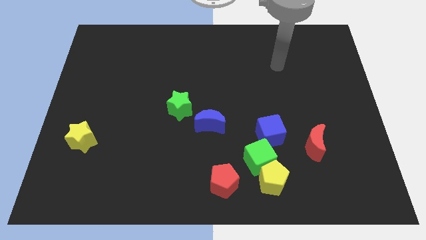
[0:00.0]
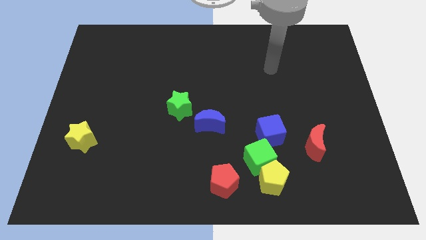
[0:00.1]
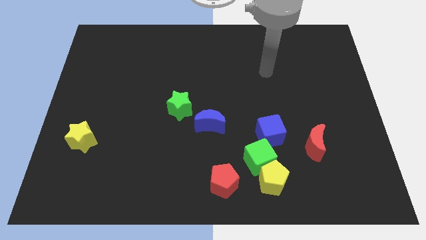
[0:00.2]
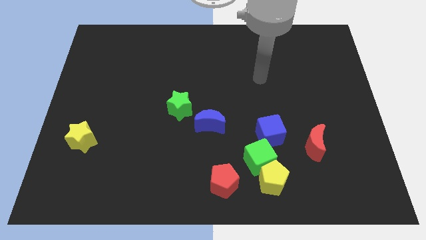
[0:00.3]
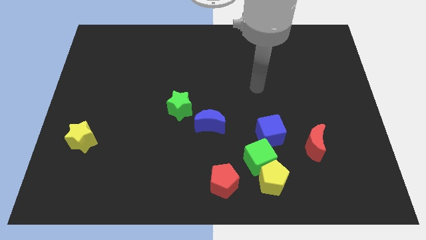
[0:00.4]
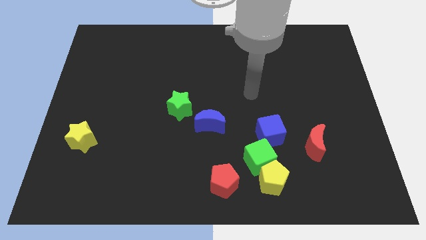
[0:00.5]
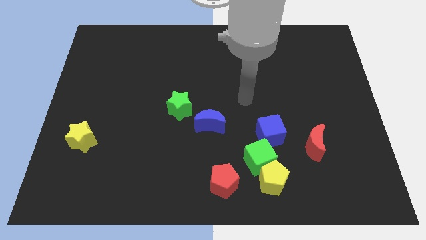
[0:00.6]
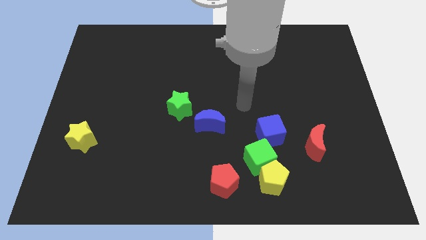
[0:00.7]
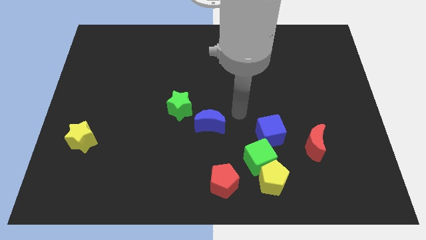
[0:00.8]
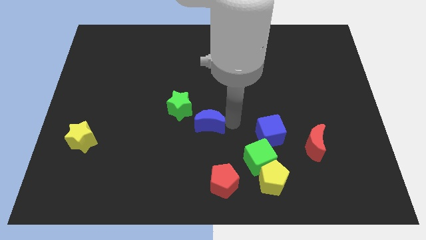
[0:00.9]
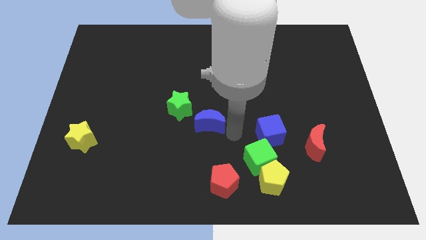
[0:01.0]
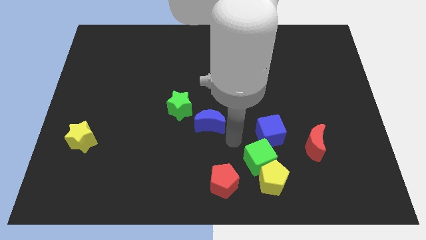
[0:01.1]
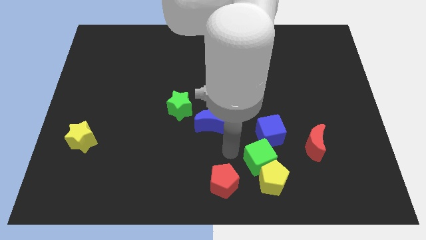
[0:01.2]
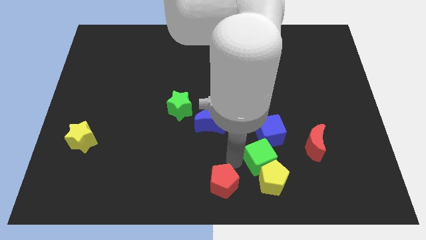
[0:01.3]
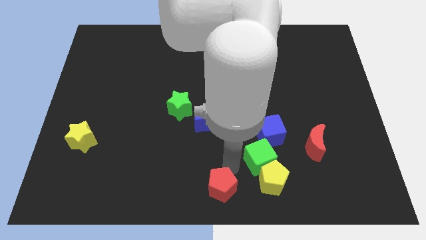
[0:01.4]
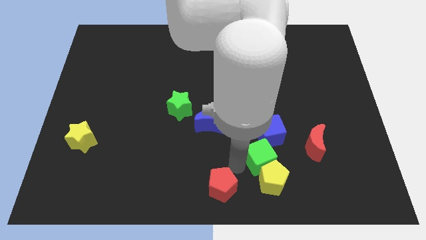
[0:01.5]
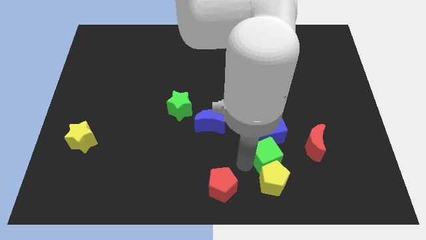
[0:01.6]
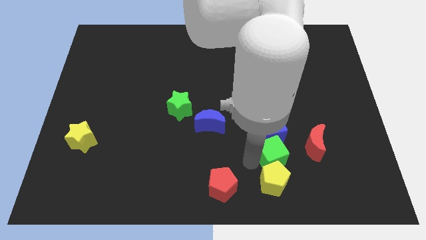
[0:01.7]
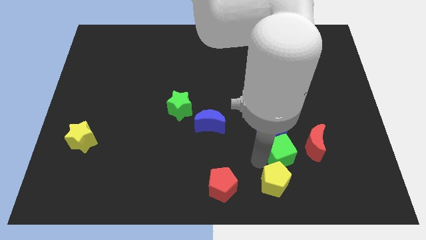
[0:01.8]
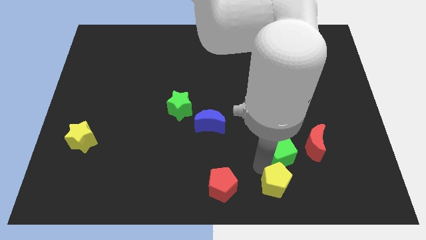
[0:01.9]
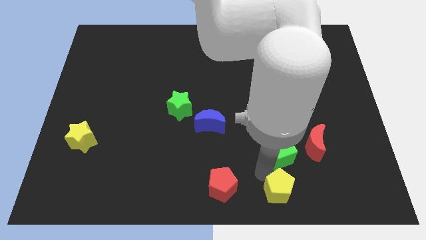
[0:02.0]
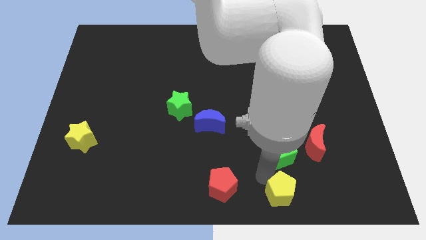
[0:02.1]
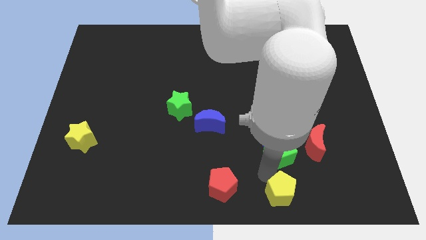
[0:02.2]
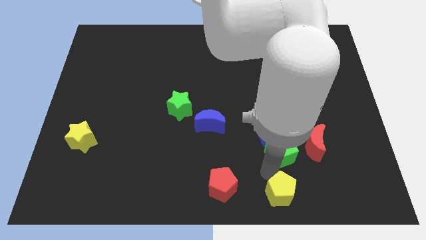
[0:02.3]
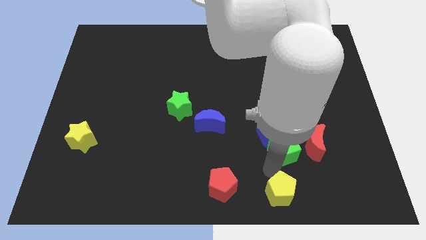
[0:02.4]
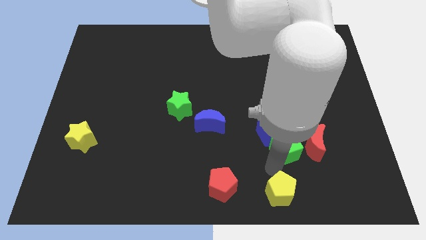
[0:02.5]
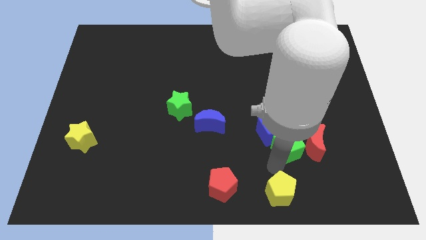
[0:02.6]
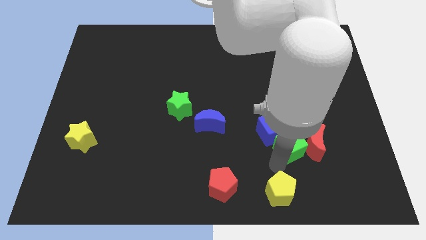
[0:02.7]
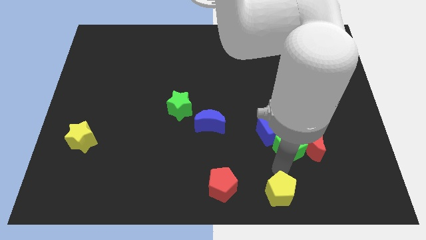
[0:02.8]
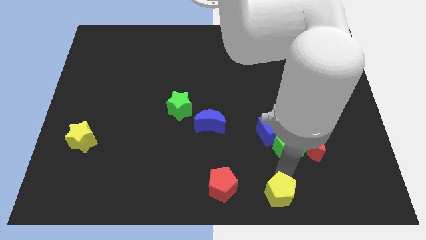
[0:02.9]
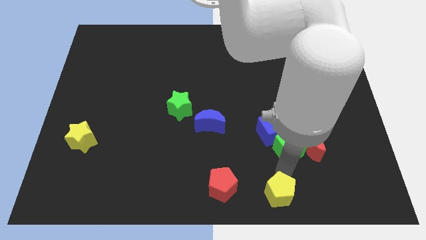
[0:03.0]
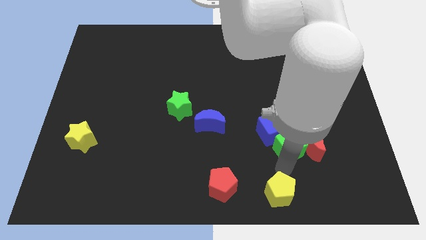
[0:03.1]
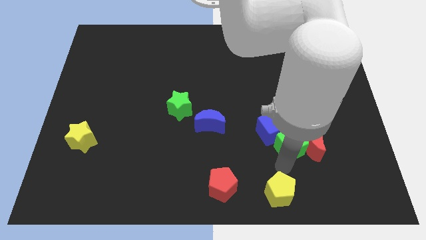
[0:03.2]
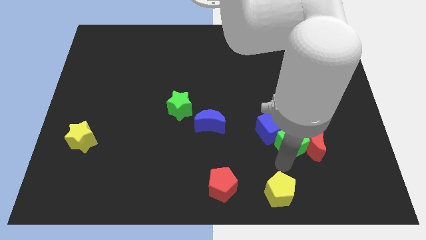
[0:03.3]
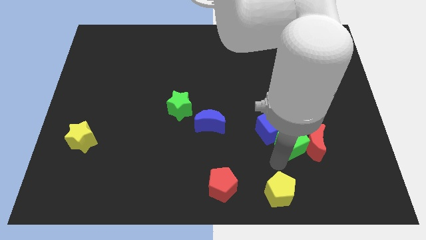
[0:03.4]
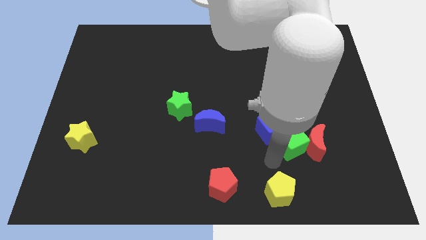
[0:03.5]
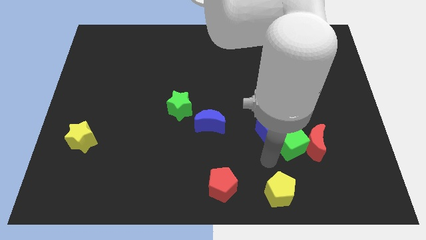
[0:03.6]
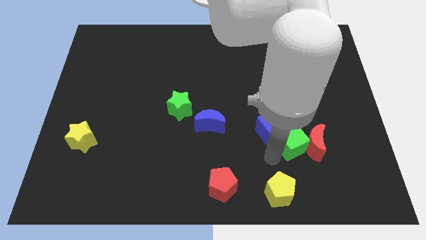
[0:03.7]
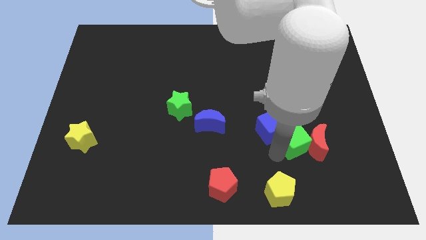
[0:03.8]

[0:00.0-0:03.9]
move the green cube away from the yellow pentagon, blue cube, and red pentagon

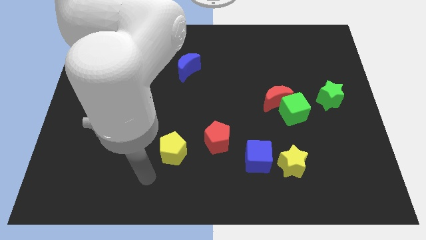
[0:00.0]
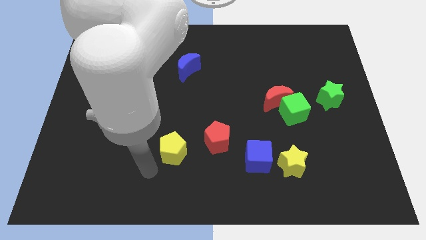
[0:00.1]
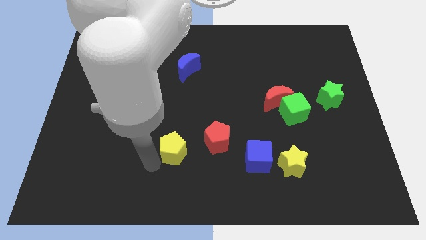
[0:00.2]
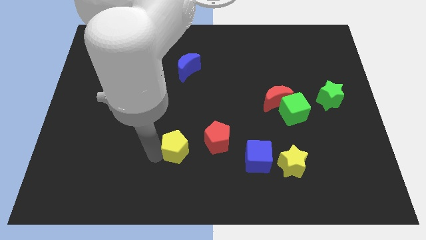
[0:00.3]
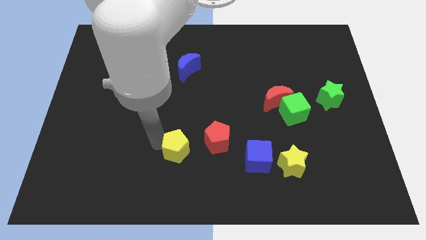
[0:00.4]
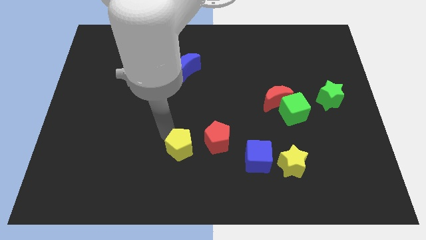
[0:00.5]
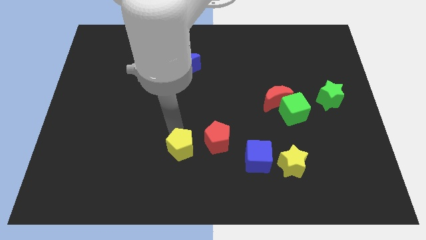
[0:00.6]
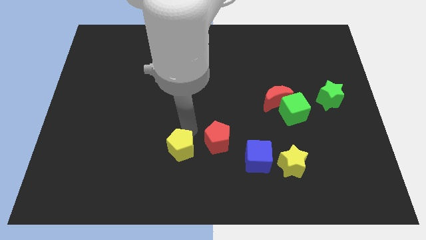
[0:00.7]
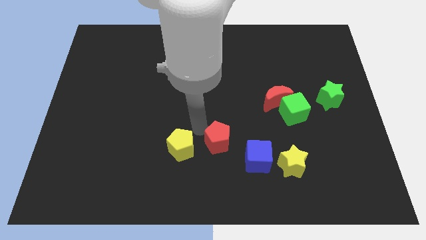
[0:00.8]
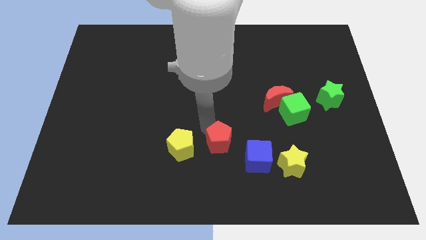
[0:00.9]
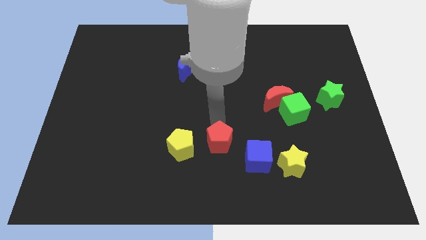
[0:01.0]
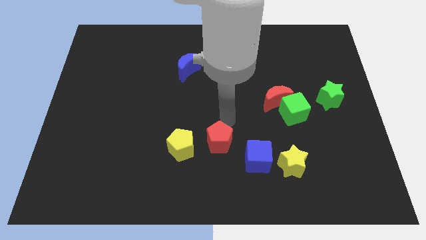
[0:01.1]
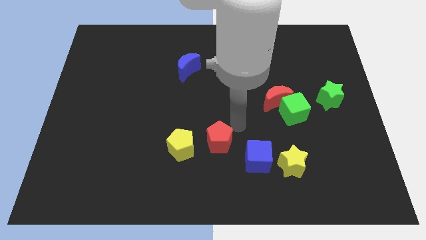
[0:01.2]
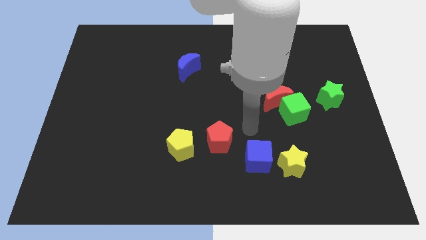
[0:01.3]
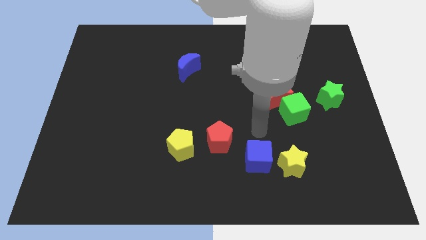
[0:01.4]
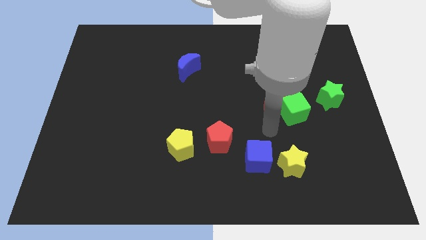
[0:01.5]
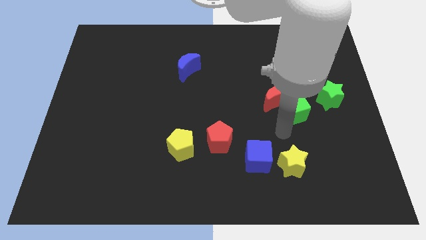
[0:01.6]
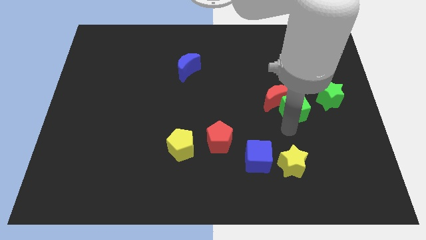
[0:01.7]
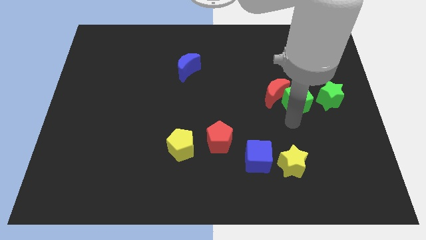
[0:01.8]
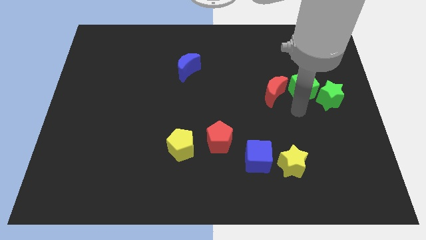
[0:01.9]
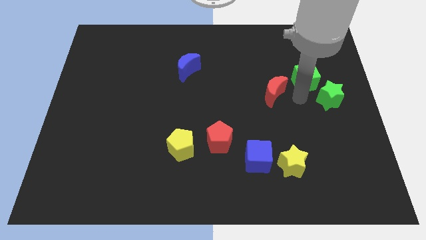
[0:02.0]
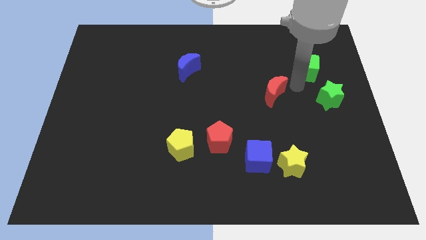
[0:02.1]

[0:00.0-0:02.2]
pull the red moon apart from the green cube

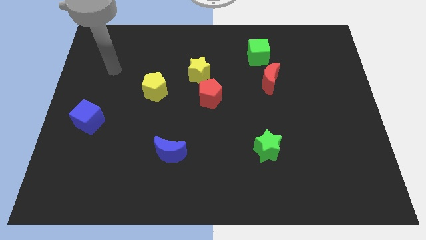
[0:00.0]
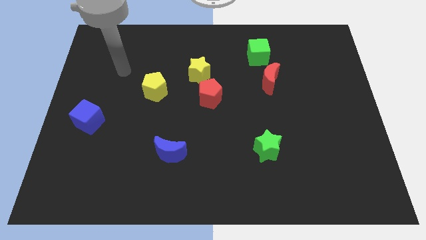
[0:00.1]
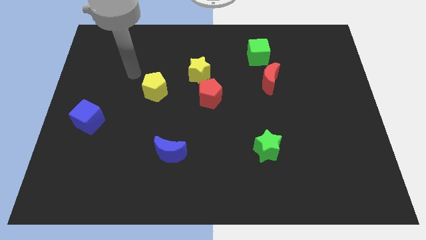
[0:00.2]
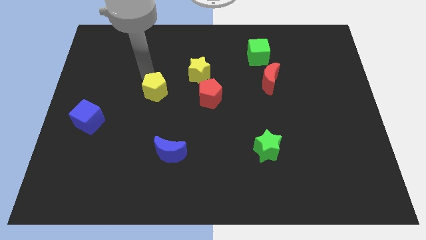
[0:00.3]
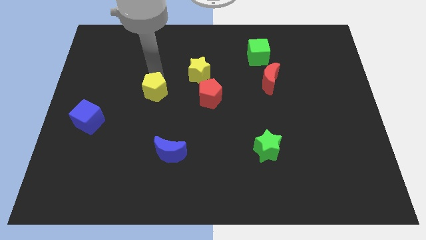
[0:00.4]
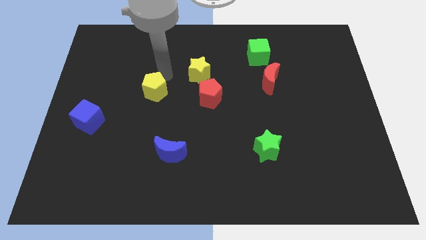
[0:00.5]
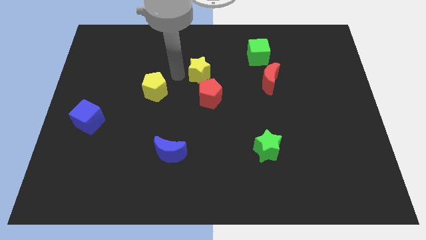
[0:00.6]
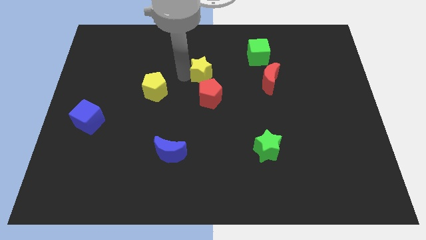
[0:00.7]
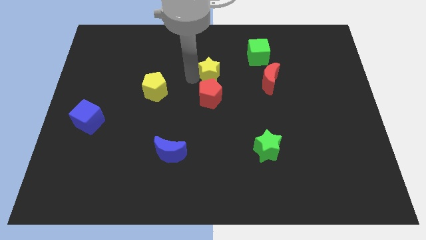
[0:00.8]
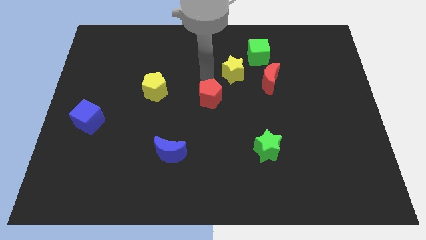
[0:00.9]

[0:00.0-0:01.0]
separate the red pentagon from the yellow star

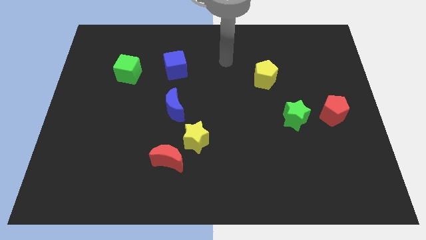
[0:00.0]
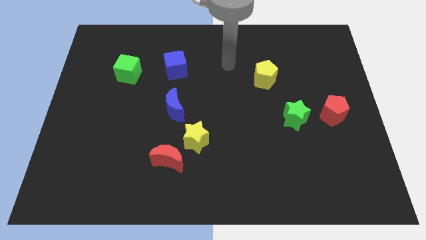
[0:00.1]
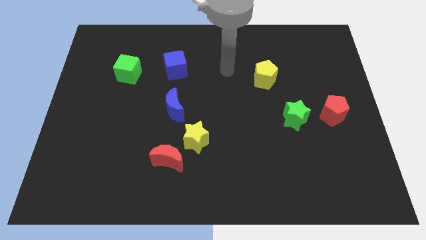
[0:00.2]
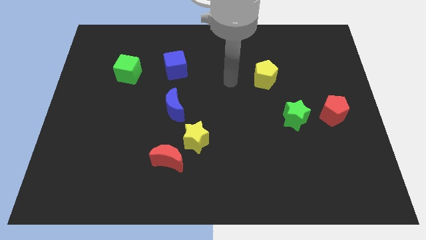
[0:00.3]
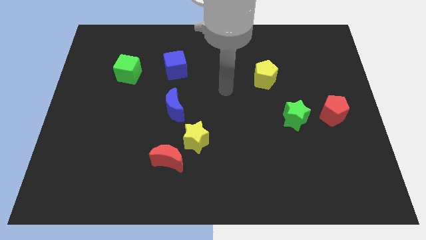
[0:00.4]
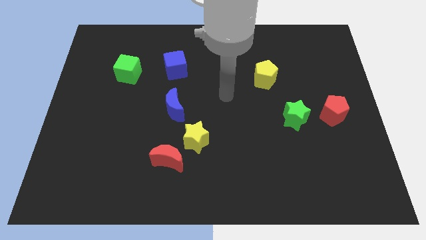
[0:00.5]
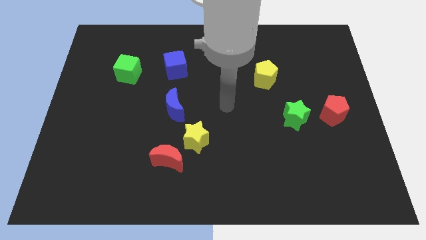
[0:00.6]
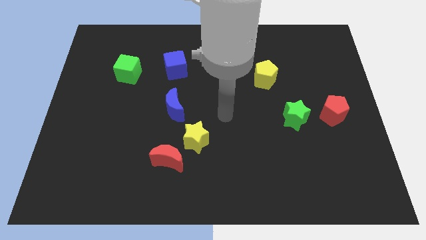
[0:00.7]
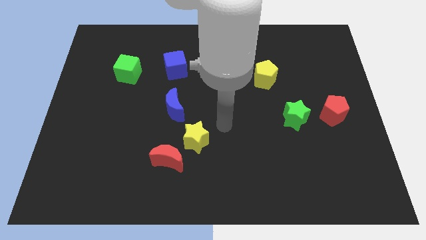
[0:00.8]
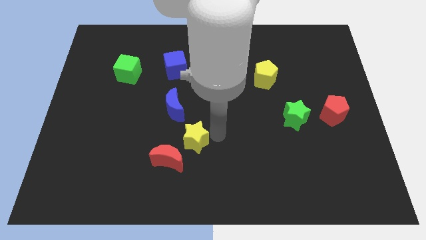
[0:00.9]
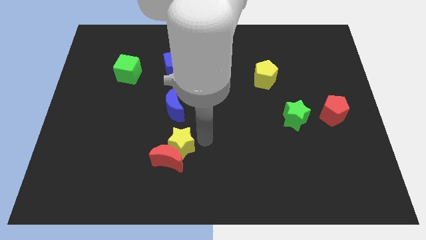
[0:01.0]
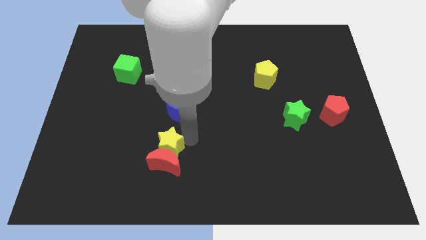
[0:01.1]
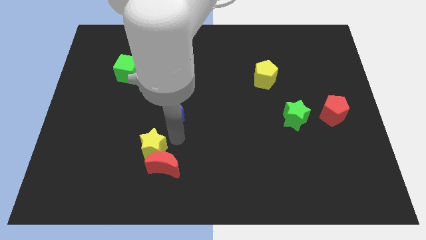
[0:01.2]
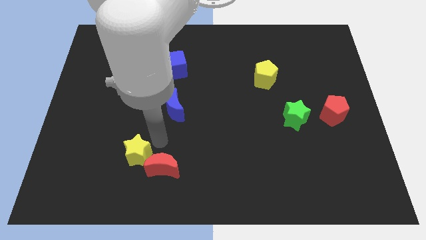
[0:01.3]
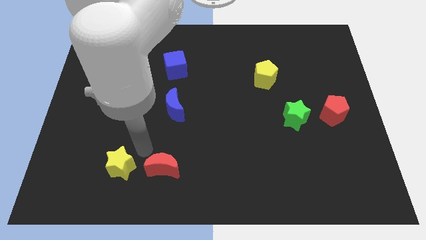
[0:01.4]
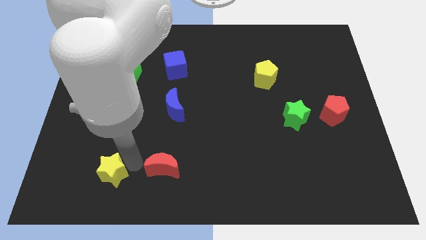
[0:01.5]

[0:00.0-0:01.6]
separate the red moon from the yellow star

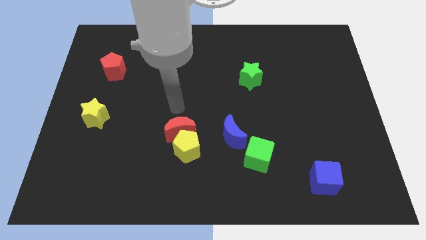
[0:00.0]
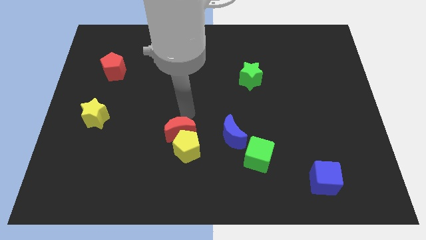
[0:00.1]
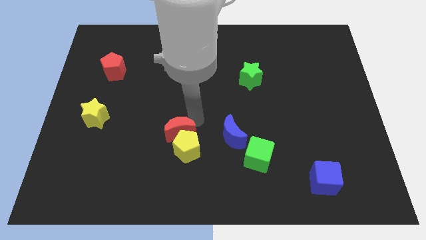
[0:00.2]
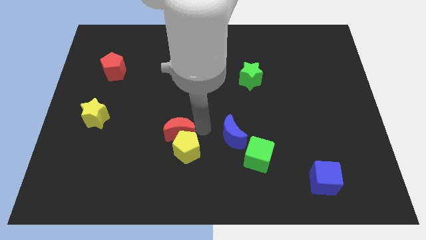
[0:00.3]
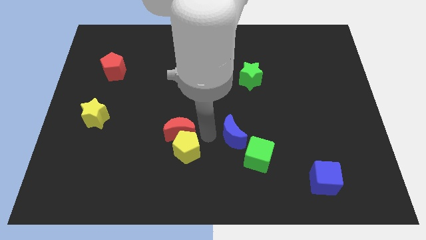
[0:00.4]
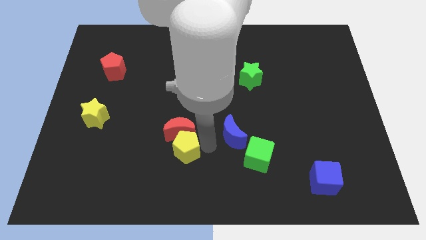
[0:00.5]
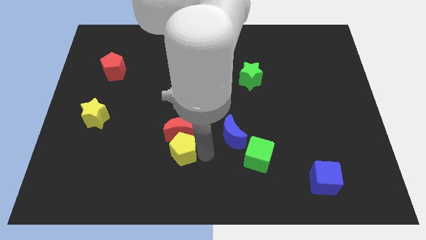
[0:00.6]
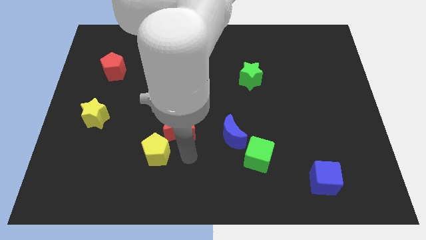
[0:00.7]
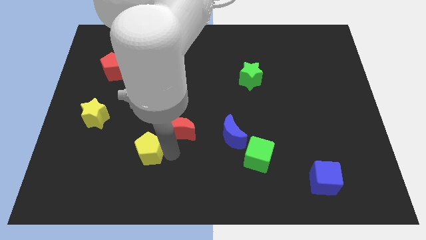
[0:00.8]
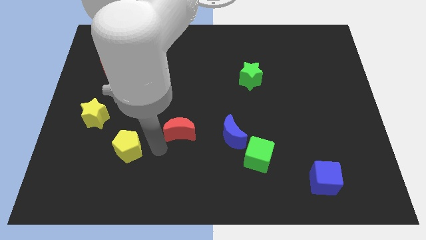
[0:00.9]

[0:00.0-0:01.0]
pull the red moon apart from the yellow pentagon
